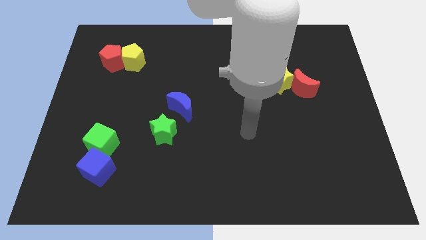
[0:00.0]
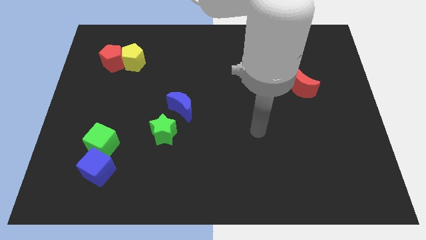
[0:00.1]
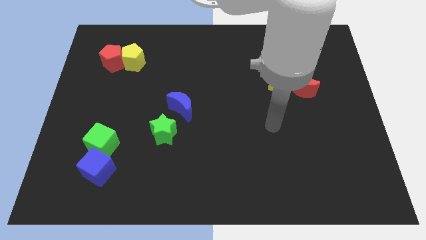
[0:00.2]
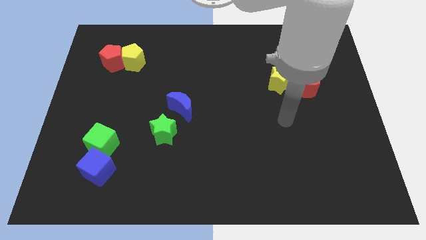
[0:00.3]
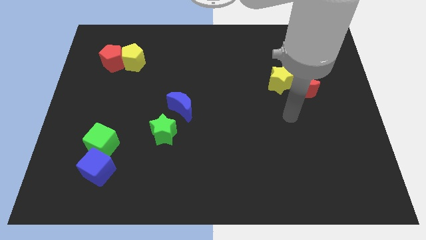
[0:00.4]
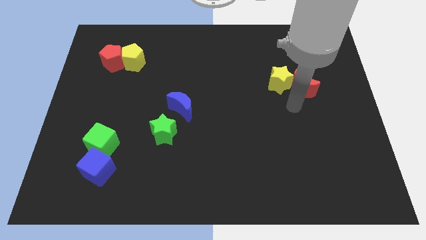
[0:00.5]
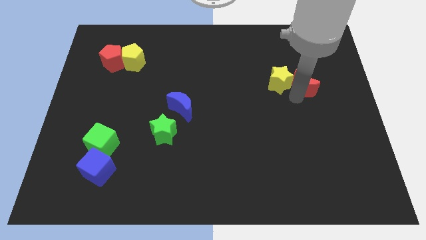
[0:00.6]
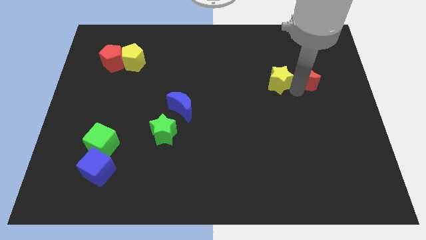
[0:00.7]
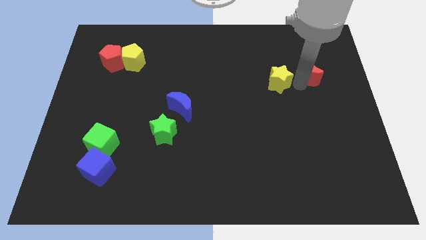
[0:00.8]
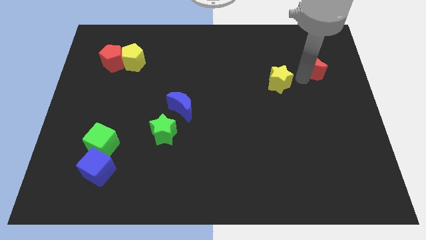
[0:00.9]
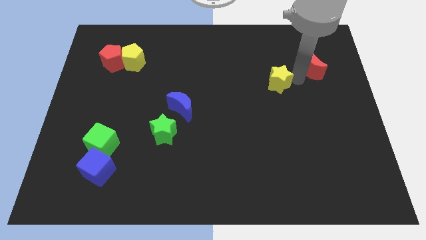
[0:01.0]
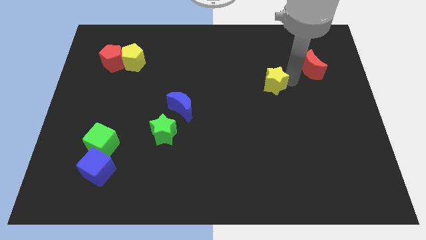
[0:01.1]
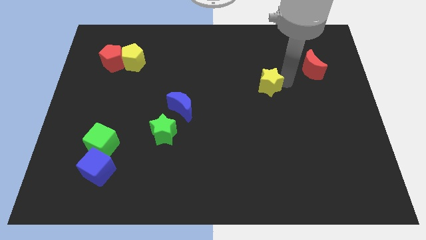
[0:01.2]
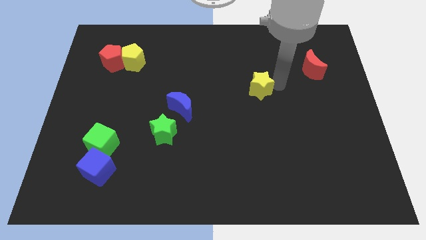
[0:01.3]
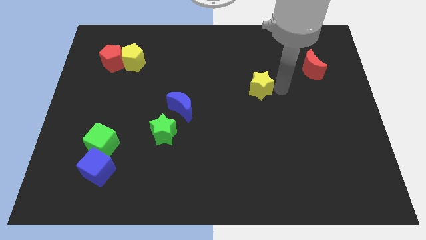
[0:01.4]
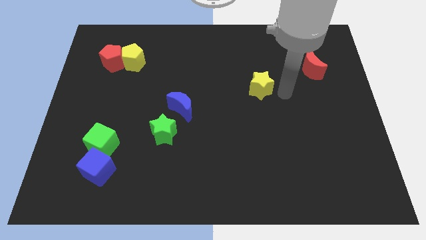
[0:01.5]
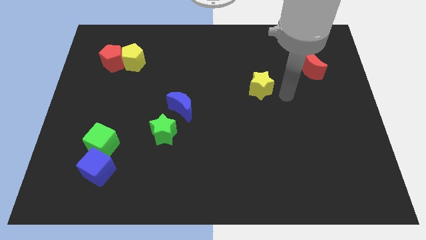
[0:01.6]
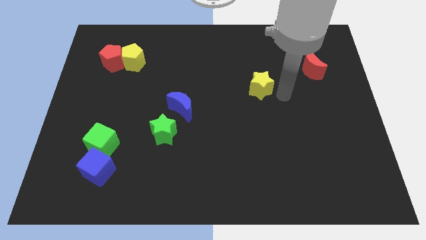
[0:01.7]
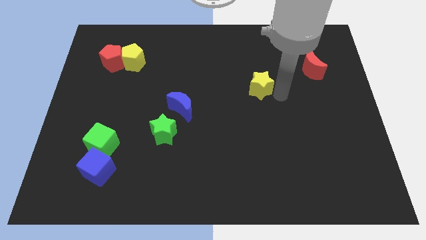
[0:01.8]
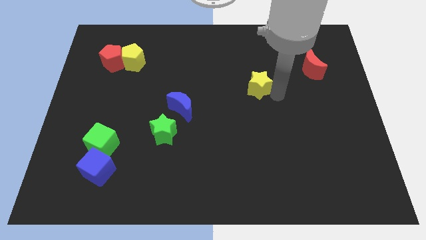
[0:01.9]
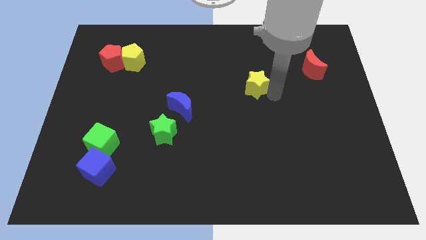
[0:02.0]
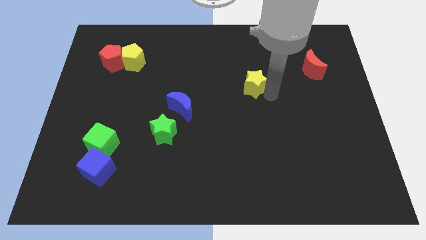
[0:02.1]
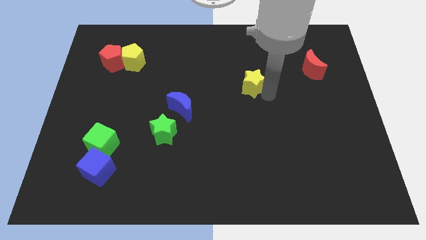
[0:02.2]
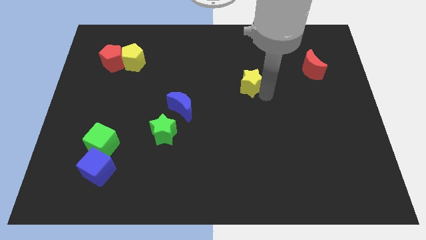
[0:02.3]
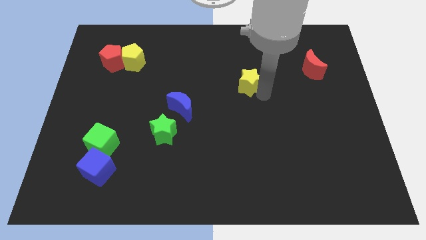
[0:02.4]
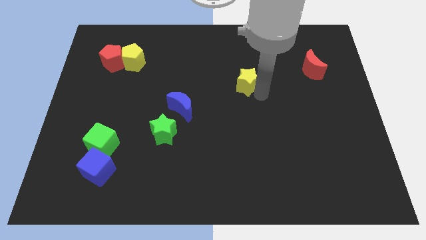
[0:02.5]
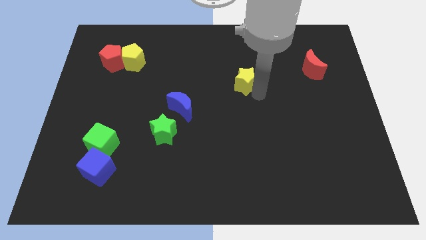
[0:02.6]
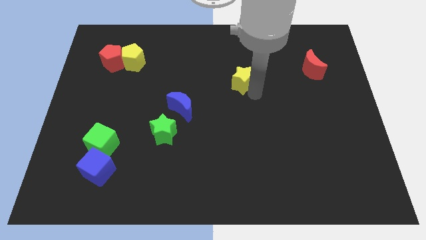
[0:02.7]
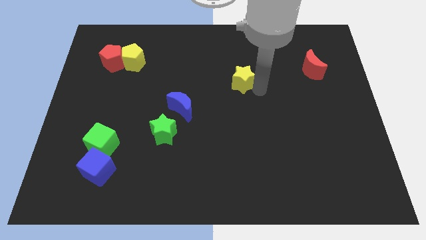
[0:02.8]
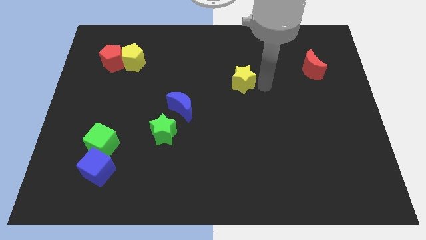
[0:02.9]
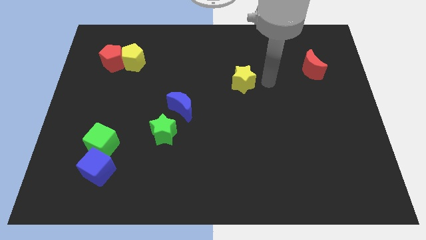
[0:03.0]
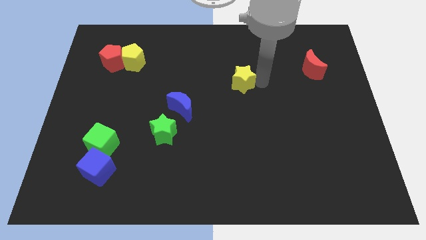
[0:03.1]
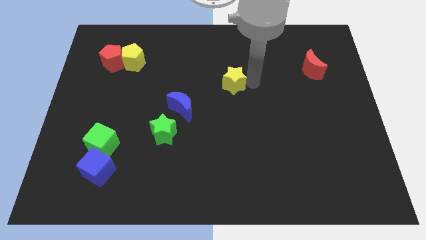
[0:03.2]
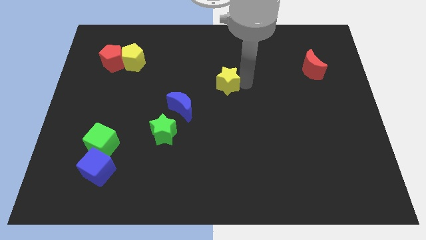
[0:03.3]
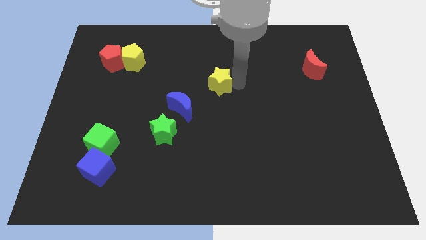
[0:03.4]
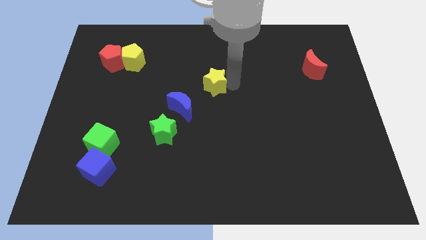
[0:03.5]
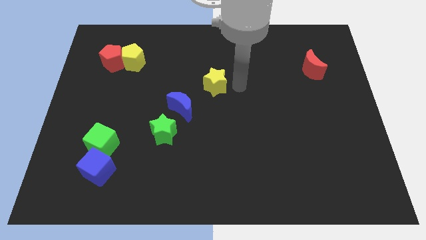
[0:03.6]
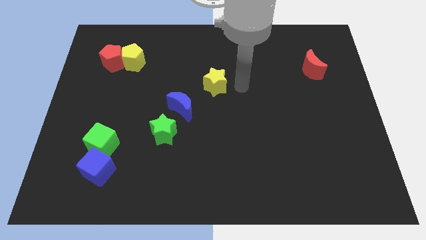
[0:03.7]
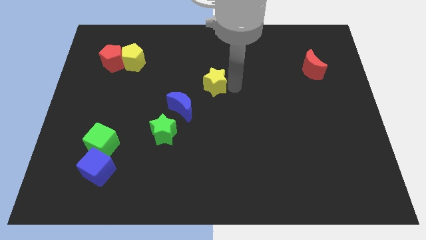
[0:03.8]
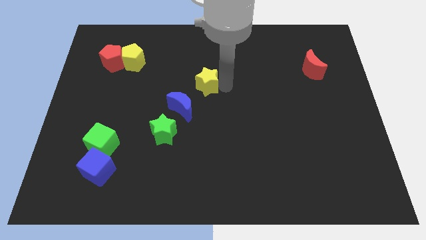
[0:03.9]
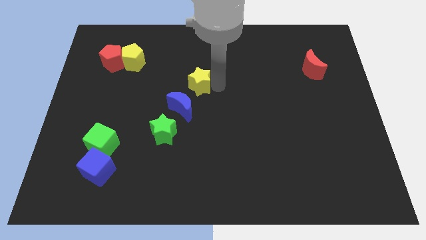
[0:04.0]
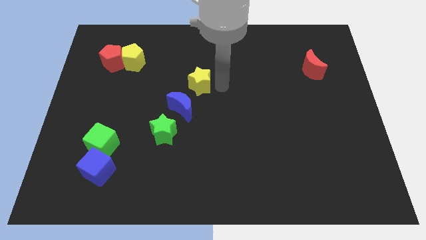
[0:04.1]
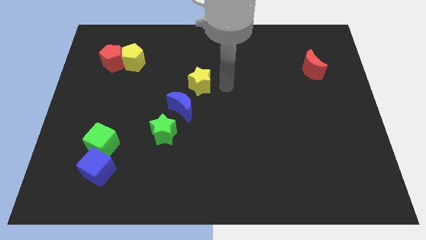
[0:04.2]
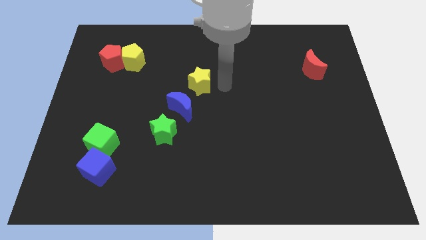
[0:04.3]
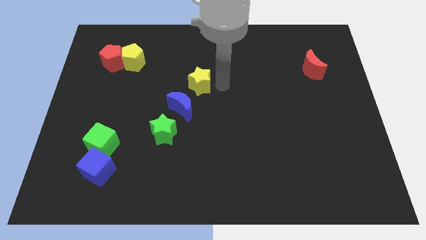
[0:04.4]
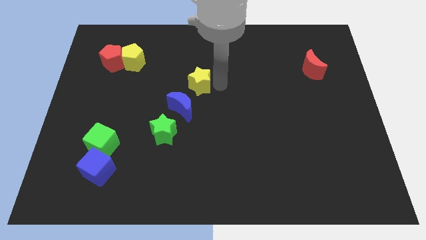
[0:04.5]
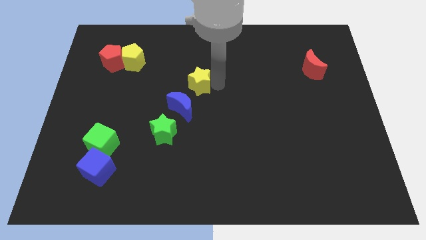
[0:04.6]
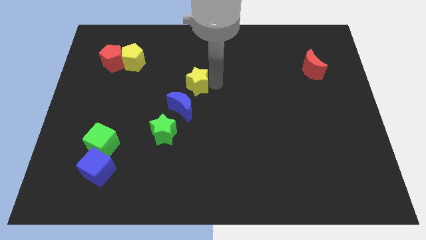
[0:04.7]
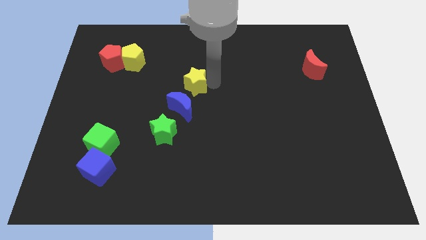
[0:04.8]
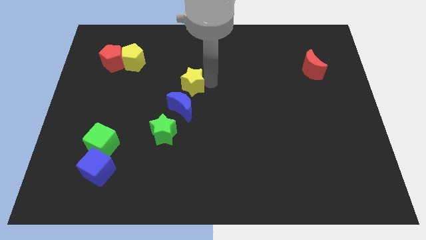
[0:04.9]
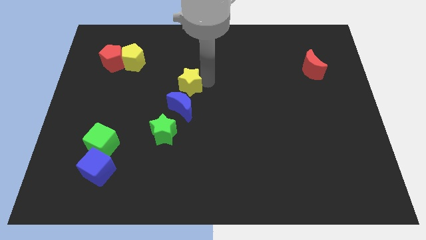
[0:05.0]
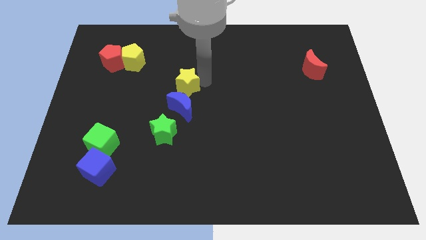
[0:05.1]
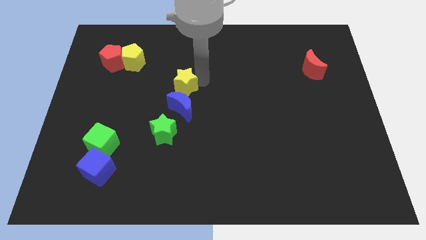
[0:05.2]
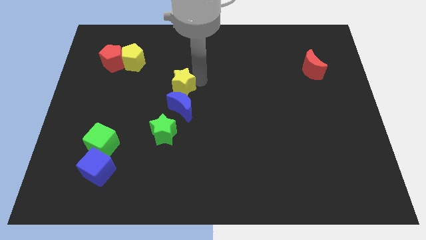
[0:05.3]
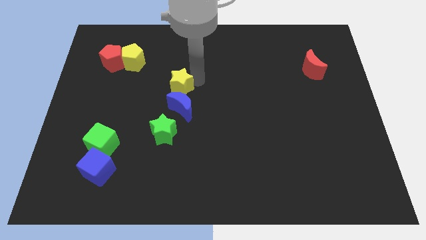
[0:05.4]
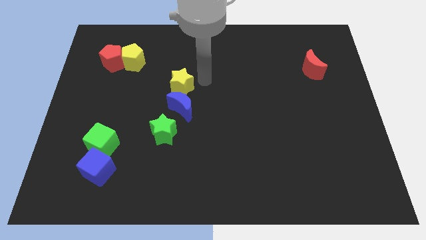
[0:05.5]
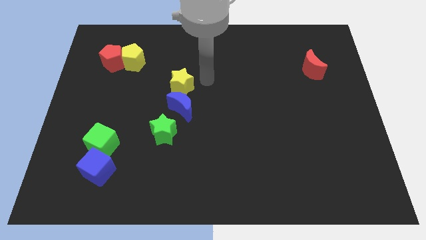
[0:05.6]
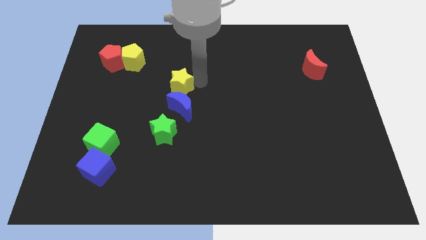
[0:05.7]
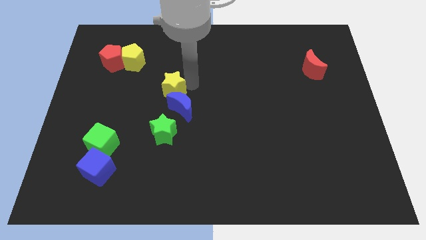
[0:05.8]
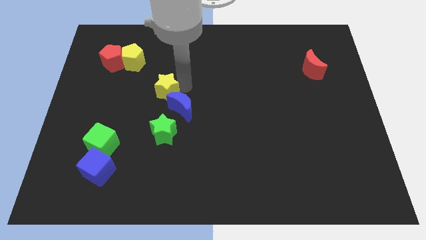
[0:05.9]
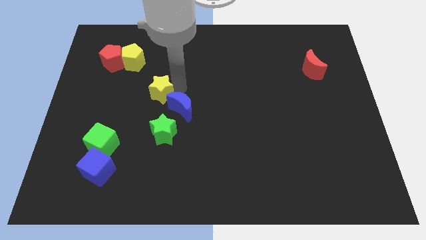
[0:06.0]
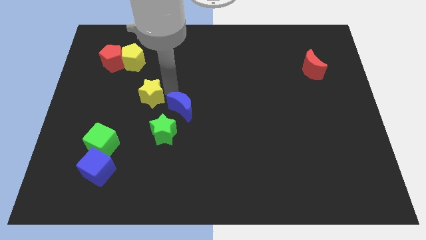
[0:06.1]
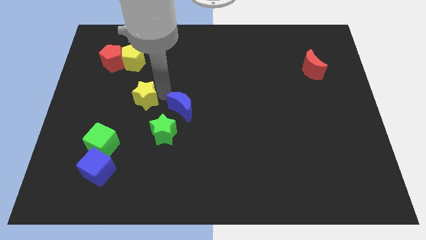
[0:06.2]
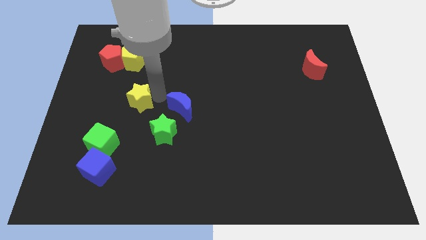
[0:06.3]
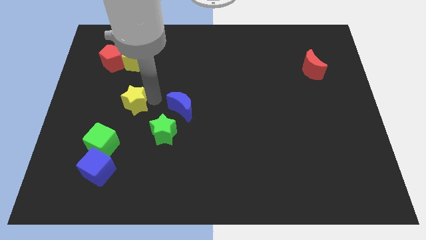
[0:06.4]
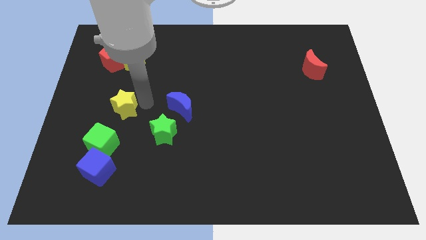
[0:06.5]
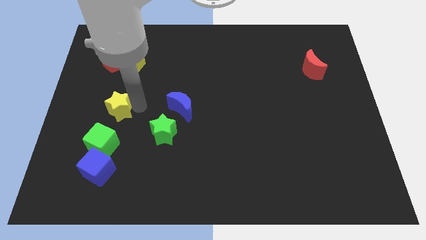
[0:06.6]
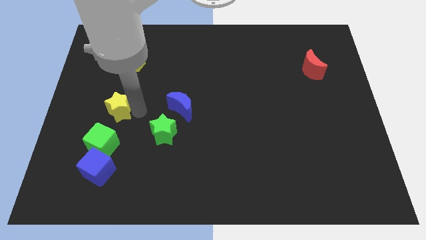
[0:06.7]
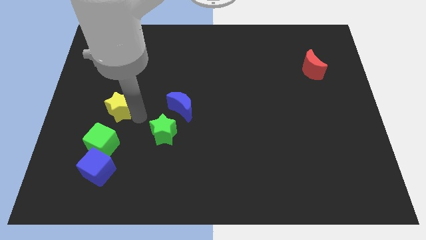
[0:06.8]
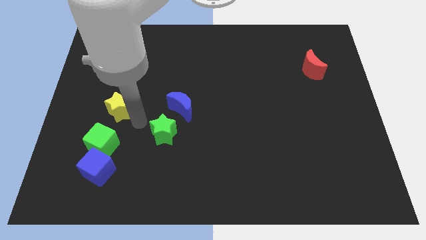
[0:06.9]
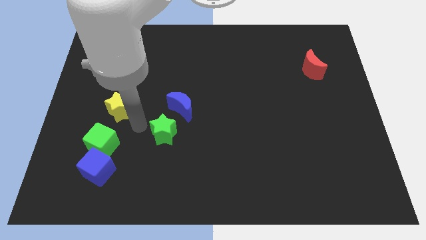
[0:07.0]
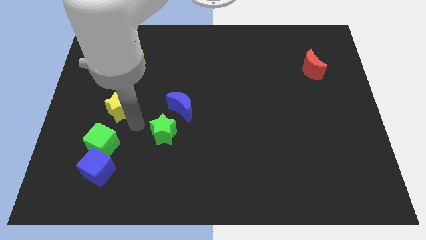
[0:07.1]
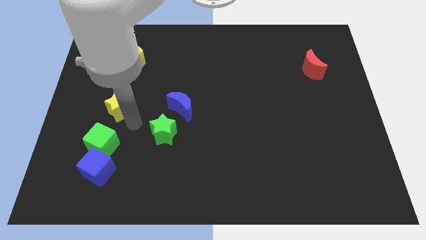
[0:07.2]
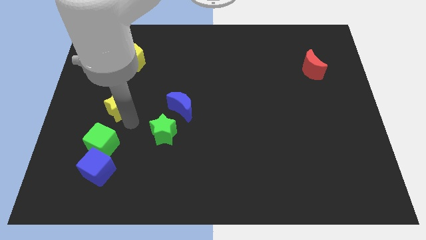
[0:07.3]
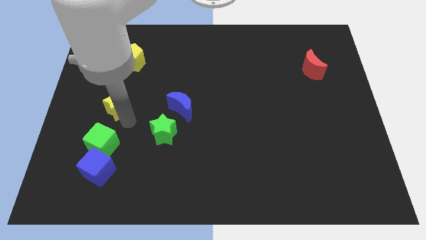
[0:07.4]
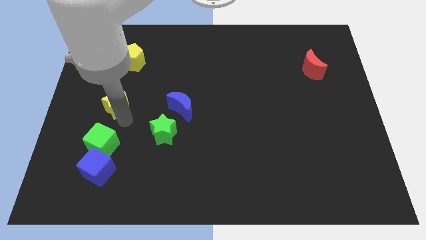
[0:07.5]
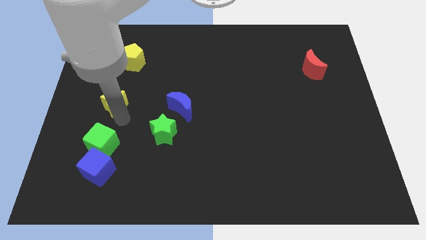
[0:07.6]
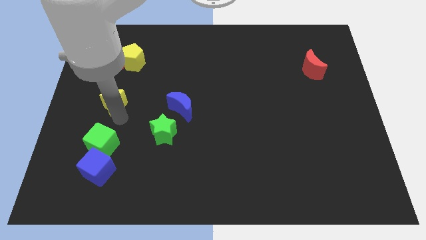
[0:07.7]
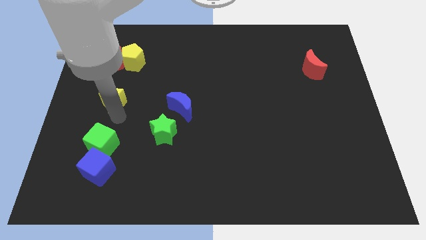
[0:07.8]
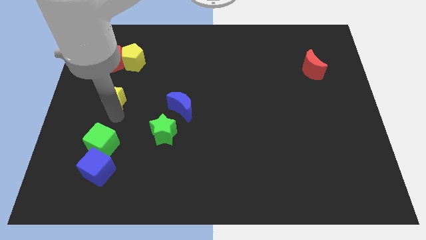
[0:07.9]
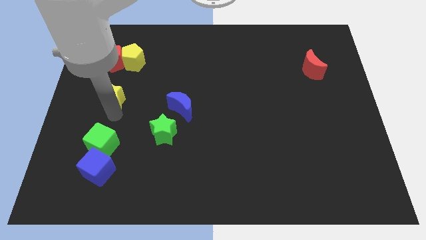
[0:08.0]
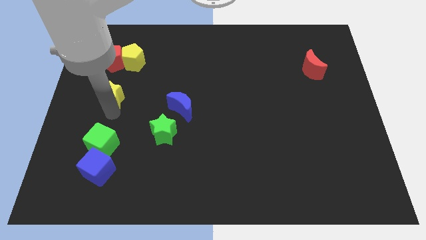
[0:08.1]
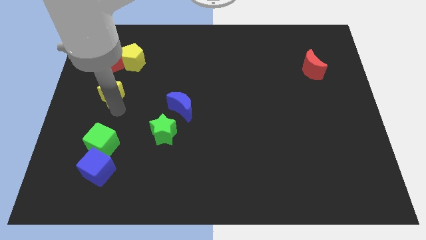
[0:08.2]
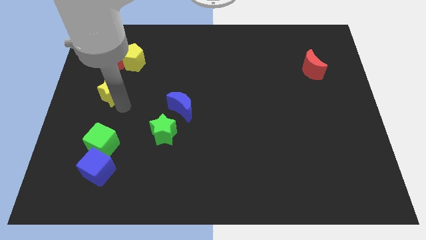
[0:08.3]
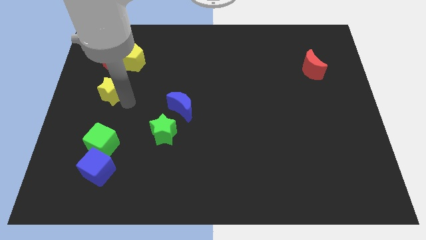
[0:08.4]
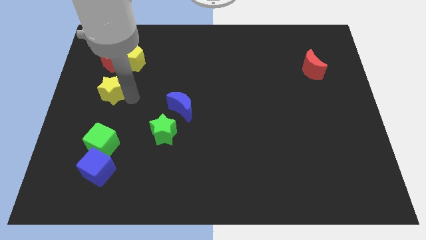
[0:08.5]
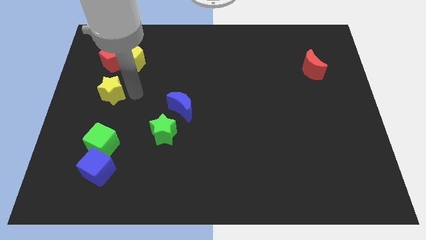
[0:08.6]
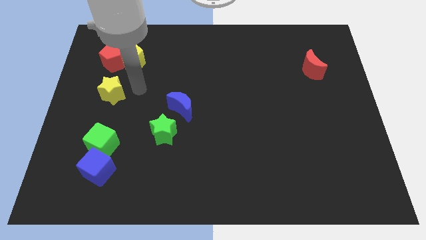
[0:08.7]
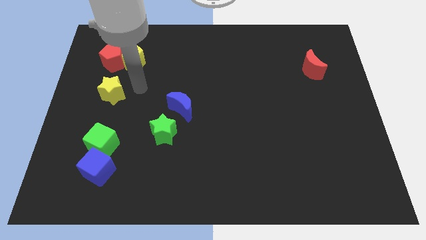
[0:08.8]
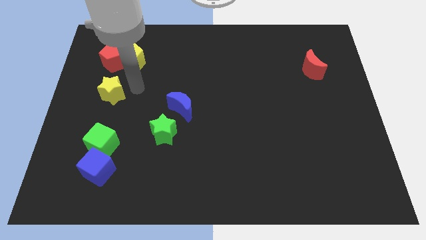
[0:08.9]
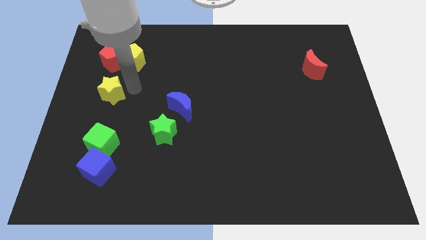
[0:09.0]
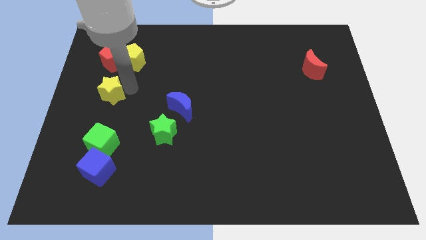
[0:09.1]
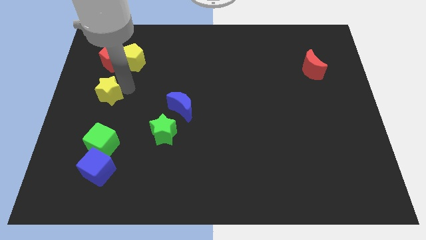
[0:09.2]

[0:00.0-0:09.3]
put the yellow star to the center left
